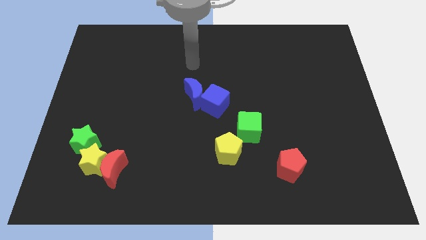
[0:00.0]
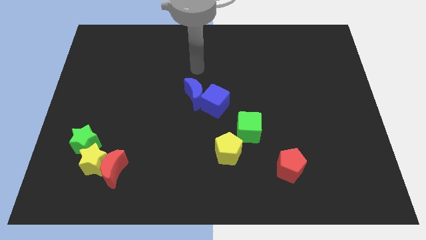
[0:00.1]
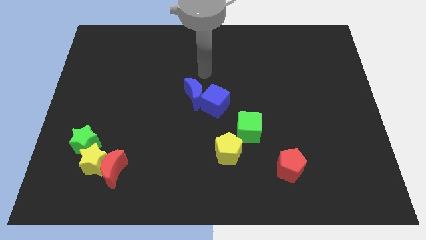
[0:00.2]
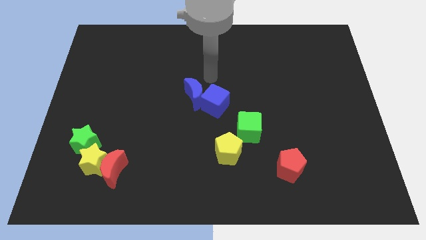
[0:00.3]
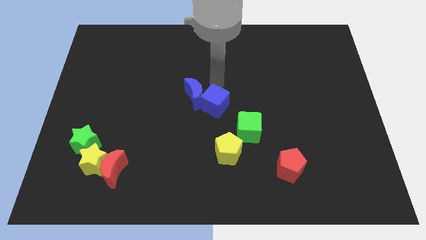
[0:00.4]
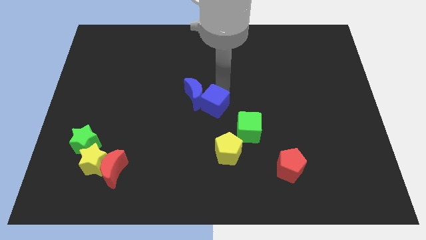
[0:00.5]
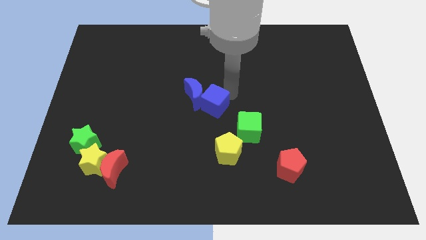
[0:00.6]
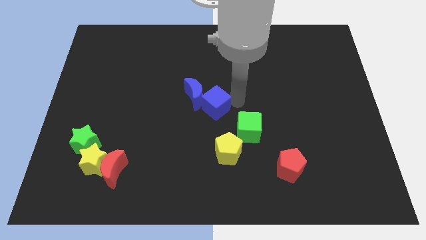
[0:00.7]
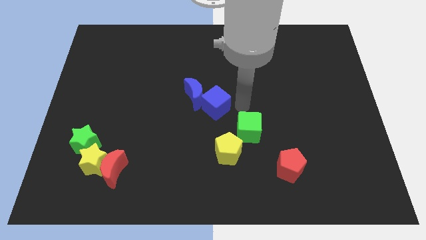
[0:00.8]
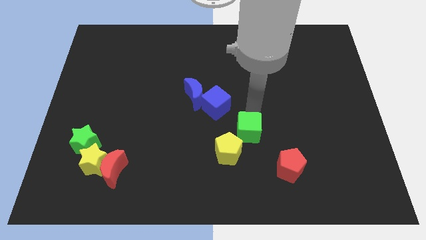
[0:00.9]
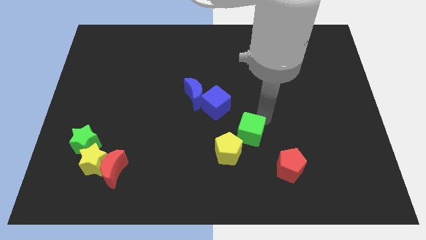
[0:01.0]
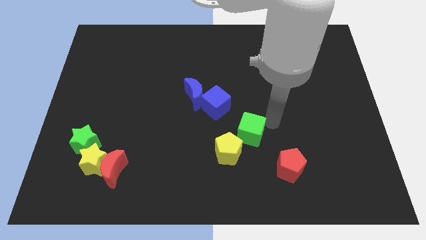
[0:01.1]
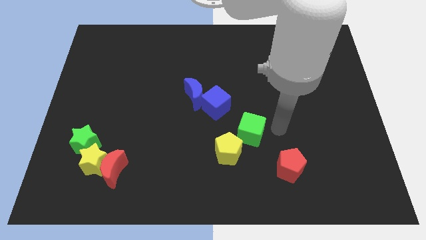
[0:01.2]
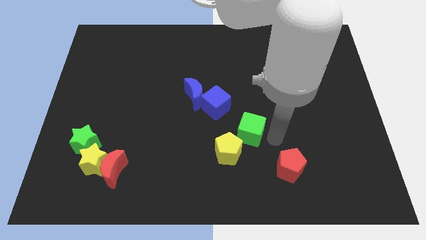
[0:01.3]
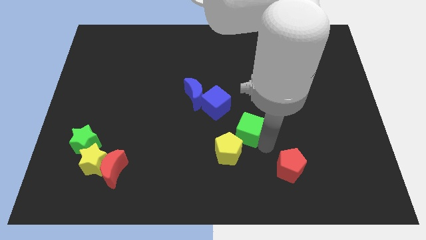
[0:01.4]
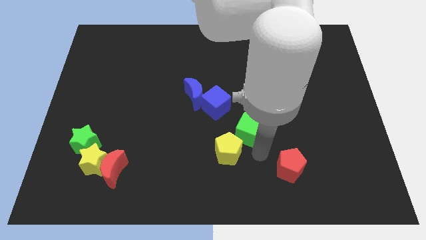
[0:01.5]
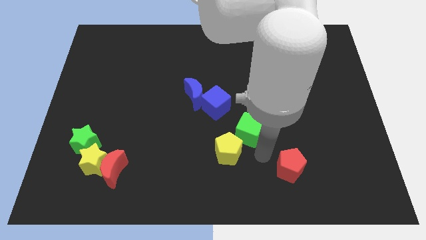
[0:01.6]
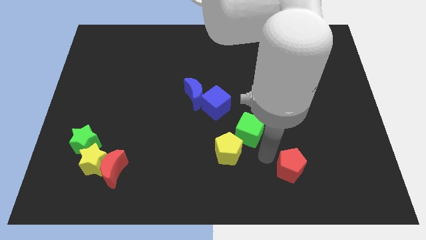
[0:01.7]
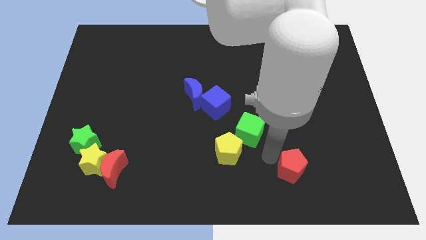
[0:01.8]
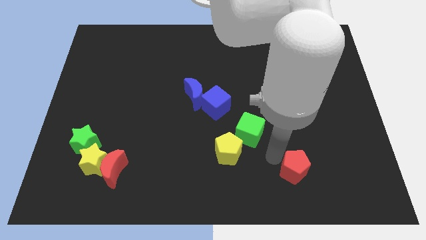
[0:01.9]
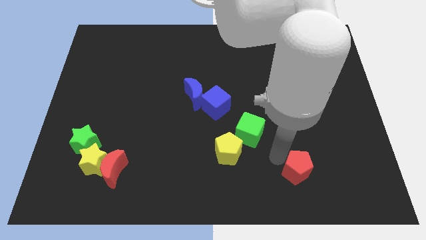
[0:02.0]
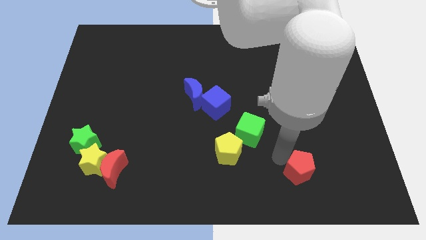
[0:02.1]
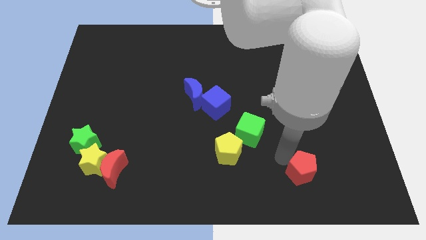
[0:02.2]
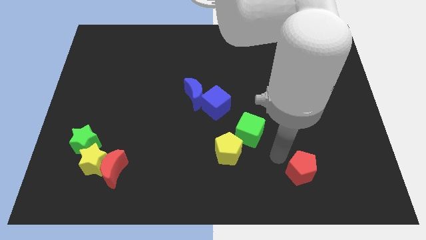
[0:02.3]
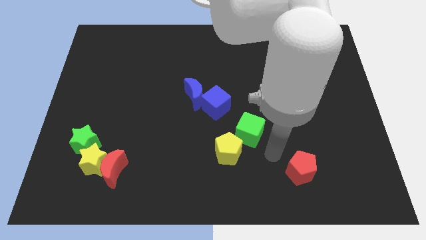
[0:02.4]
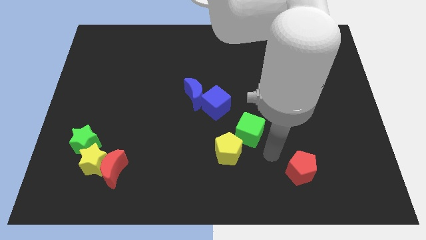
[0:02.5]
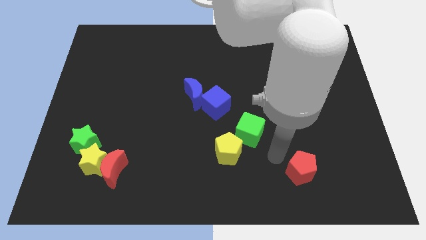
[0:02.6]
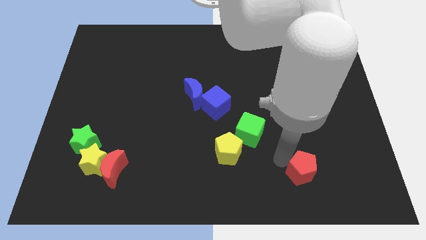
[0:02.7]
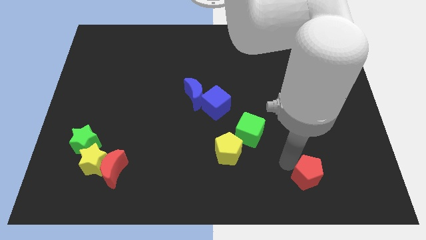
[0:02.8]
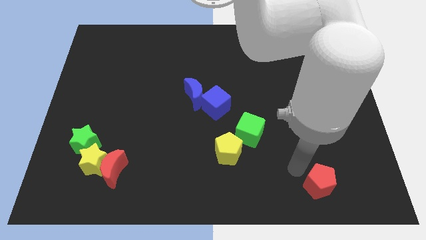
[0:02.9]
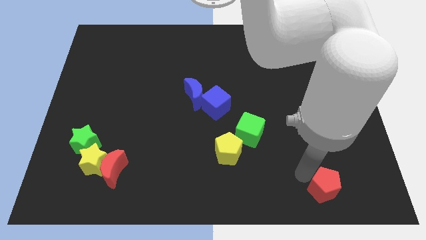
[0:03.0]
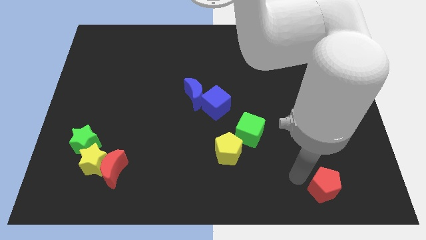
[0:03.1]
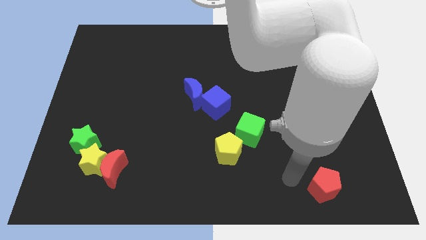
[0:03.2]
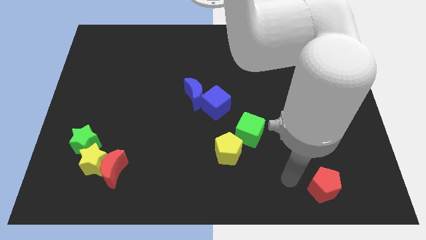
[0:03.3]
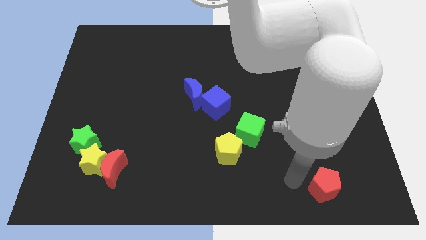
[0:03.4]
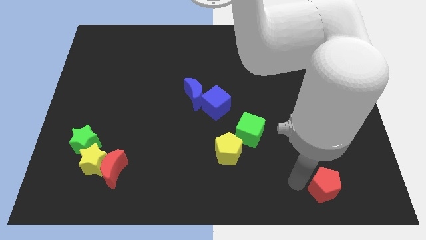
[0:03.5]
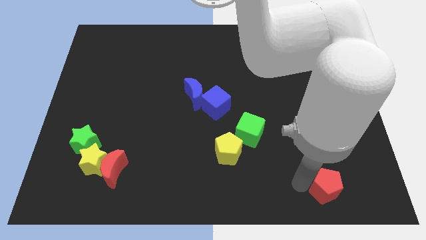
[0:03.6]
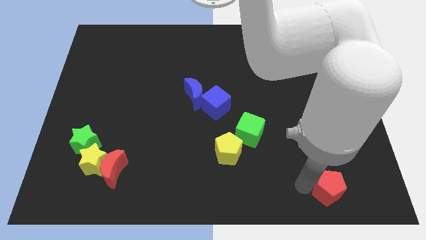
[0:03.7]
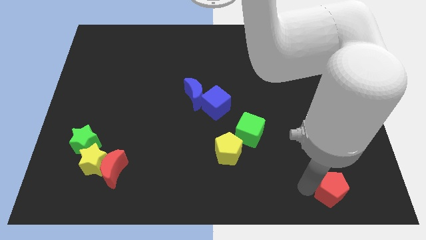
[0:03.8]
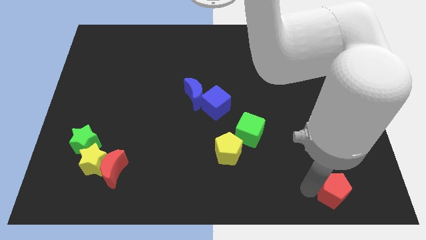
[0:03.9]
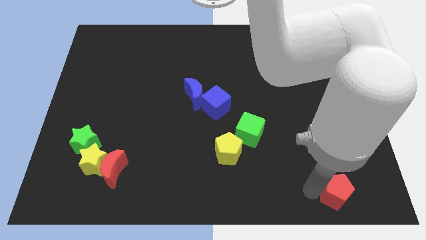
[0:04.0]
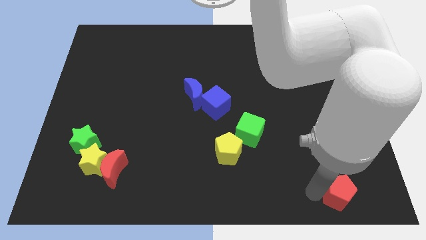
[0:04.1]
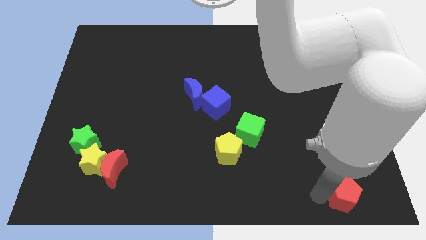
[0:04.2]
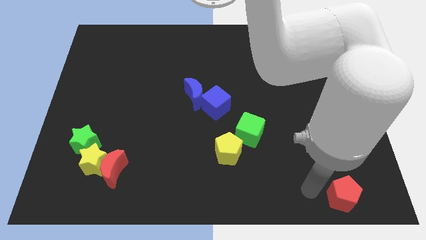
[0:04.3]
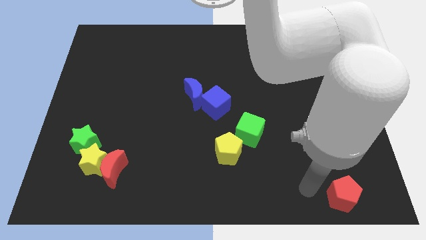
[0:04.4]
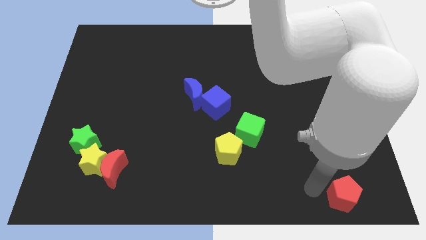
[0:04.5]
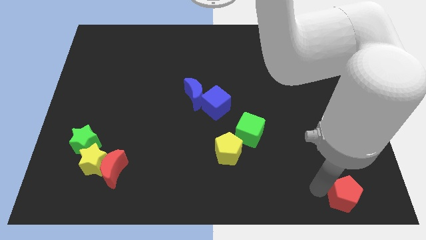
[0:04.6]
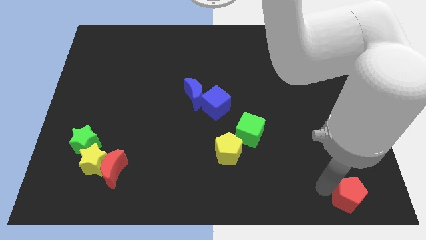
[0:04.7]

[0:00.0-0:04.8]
put the red pentagon to the lower right corner

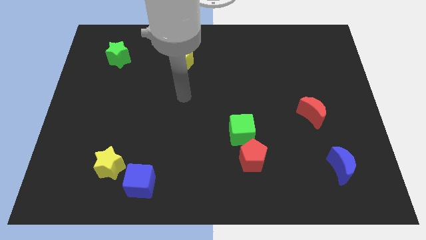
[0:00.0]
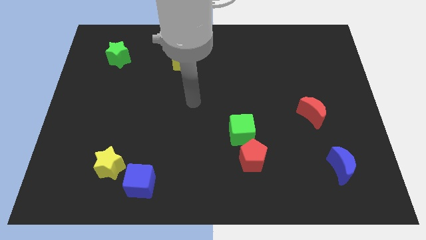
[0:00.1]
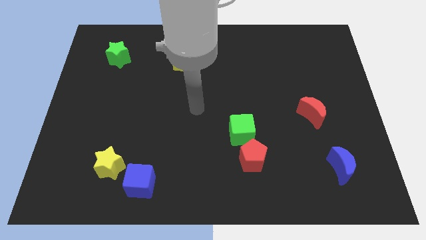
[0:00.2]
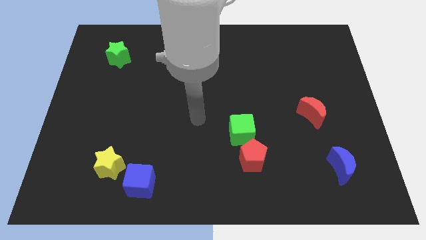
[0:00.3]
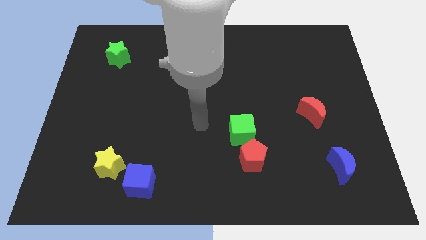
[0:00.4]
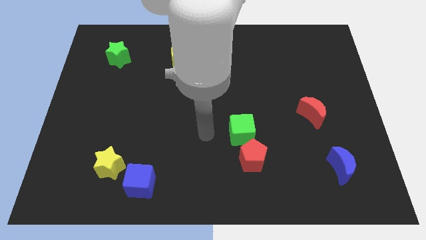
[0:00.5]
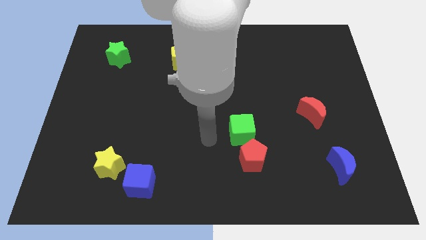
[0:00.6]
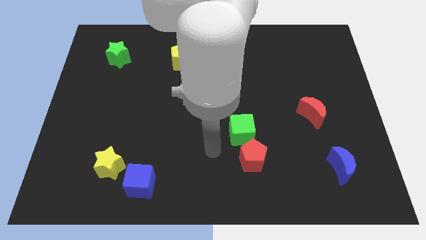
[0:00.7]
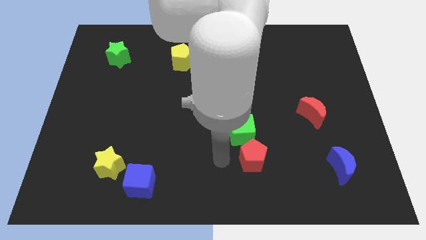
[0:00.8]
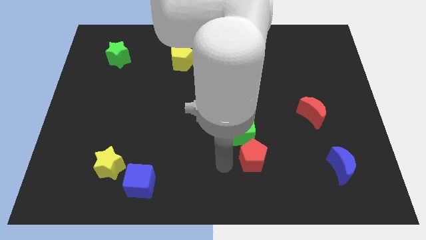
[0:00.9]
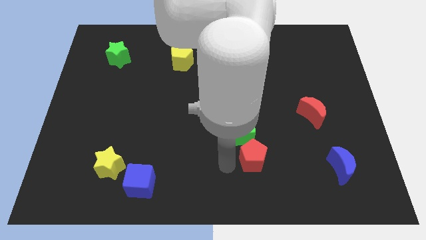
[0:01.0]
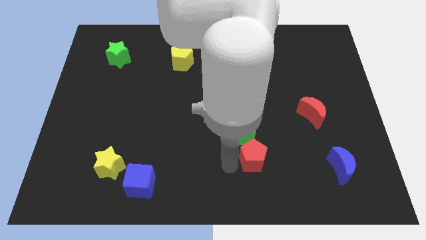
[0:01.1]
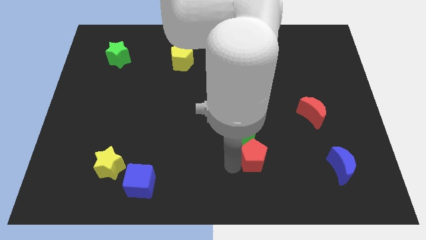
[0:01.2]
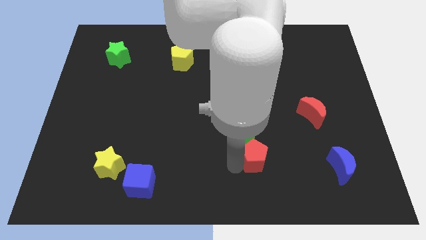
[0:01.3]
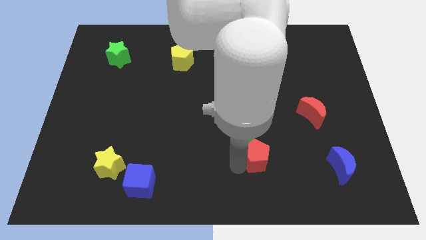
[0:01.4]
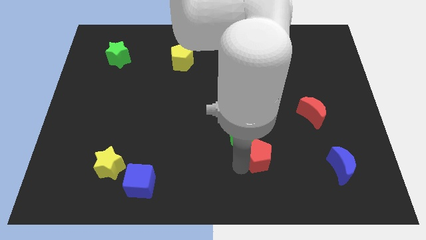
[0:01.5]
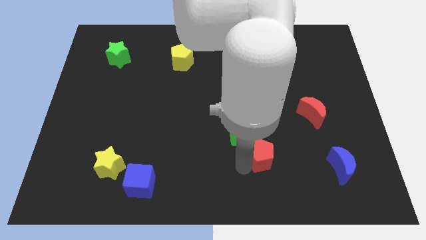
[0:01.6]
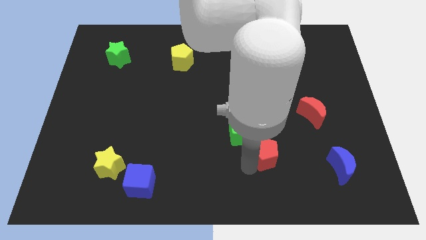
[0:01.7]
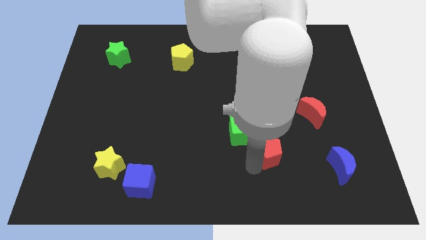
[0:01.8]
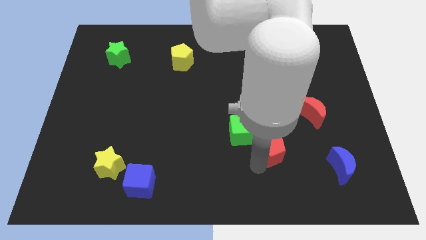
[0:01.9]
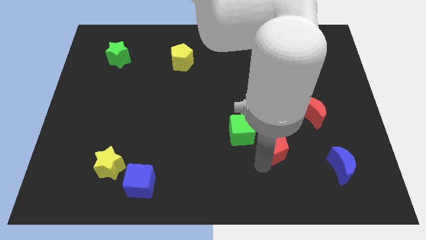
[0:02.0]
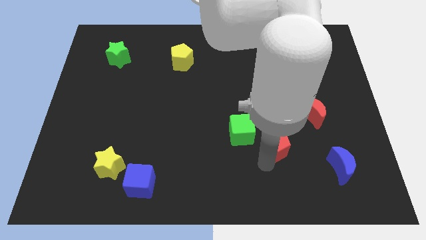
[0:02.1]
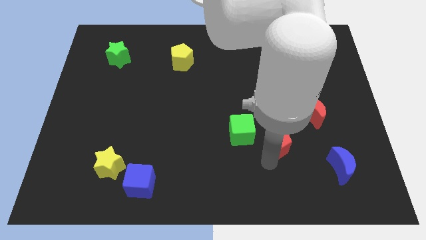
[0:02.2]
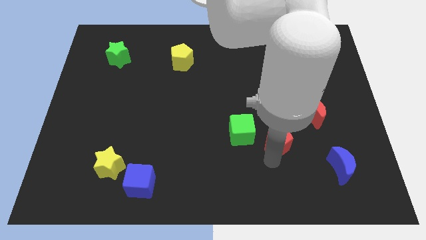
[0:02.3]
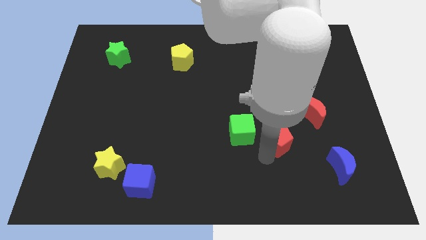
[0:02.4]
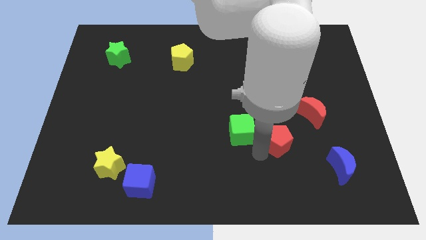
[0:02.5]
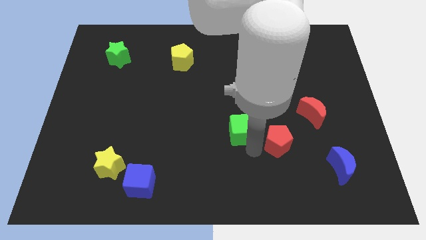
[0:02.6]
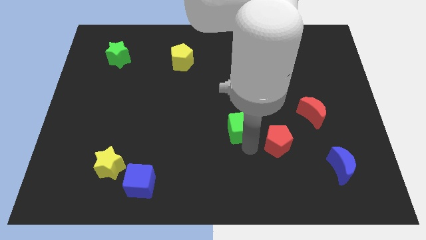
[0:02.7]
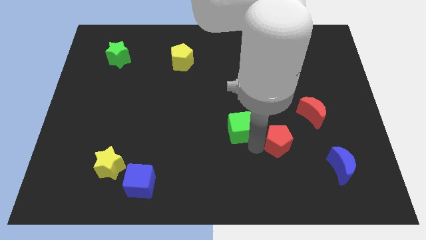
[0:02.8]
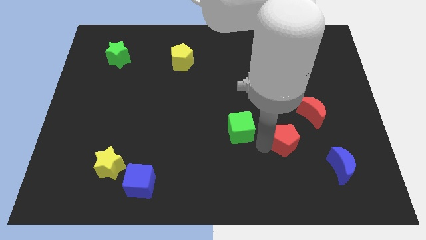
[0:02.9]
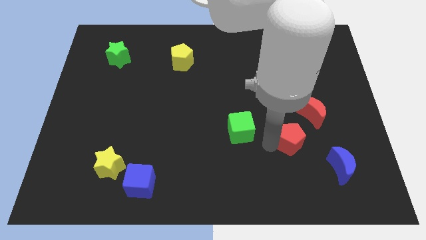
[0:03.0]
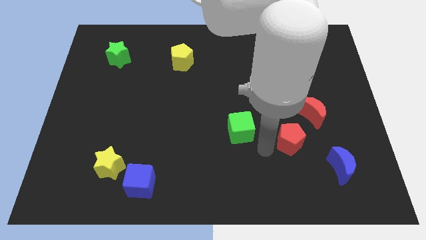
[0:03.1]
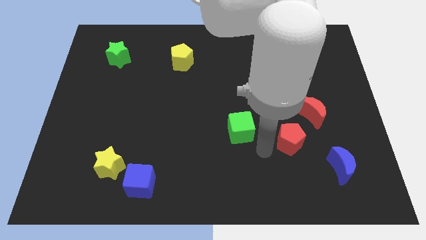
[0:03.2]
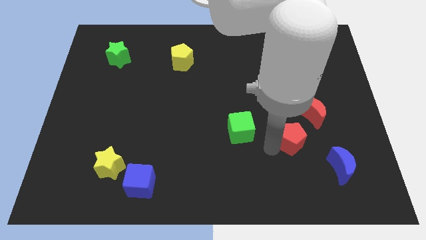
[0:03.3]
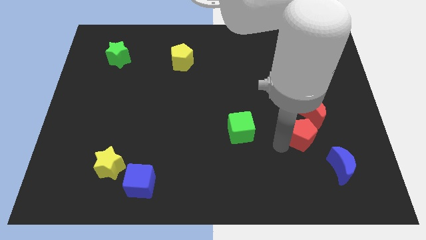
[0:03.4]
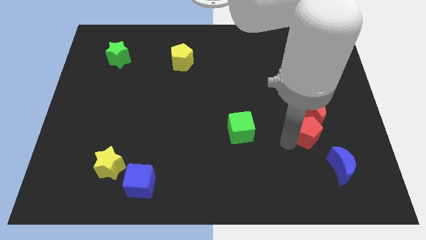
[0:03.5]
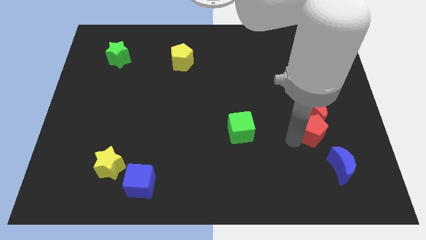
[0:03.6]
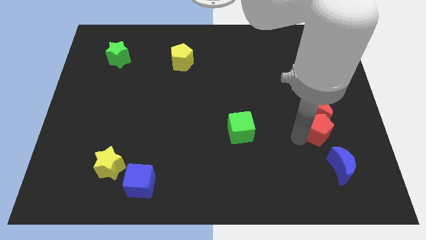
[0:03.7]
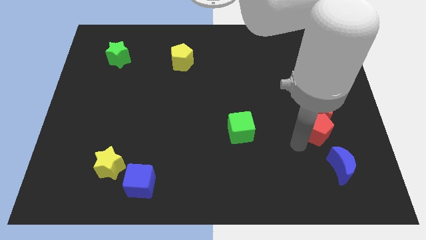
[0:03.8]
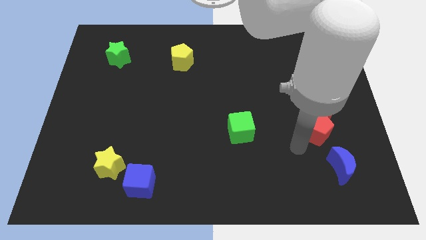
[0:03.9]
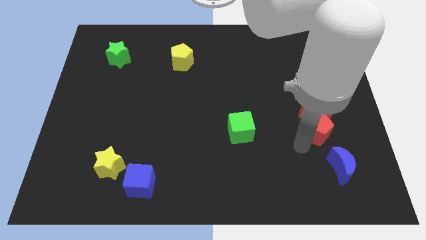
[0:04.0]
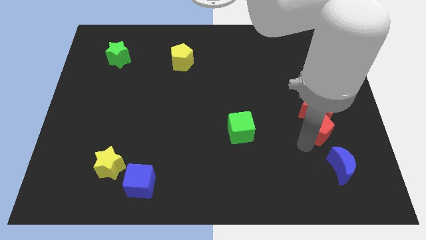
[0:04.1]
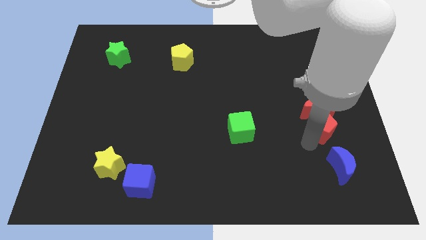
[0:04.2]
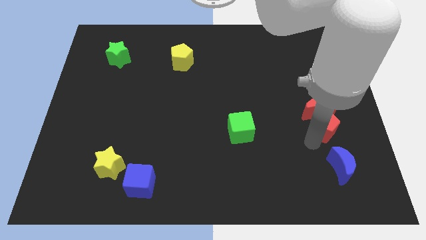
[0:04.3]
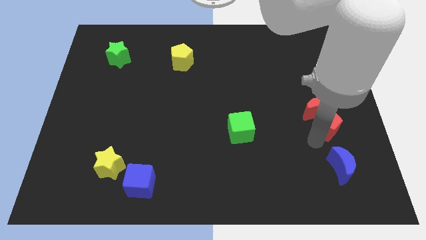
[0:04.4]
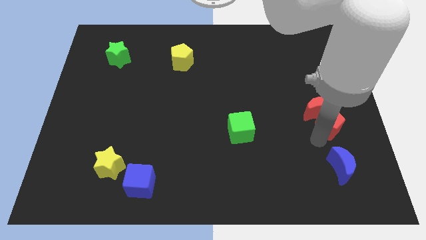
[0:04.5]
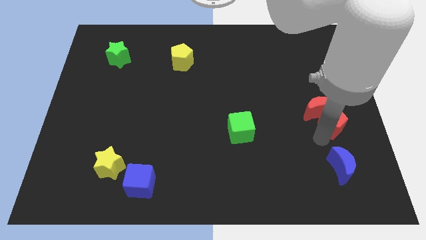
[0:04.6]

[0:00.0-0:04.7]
move the red pentagon to the right side
